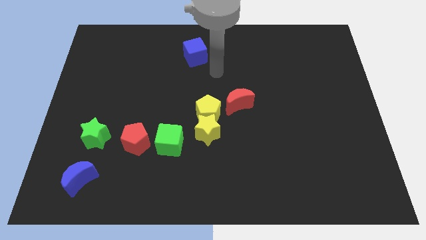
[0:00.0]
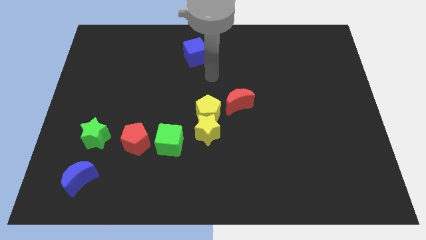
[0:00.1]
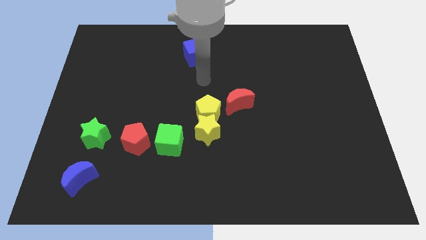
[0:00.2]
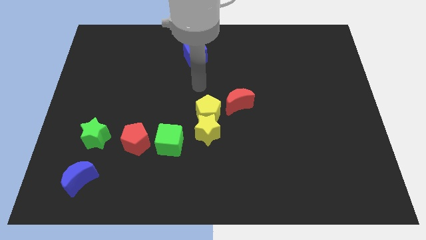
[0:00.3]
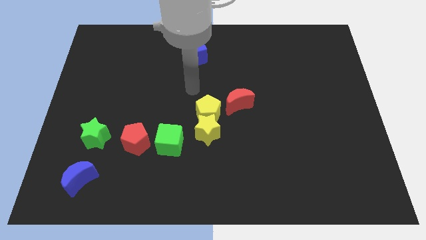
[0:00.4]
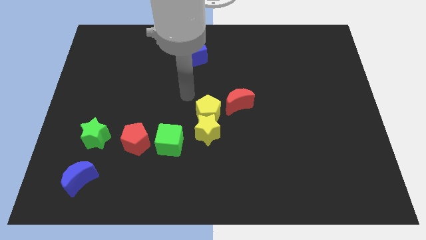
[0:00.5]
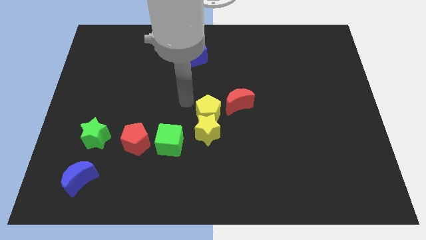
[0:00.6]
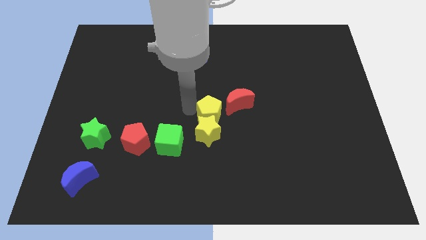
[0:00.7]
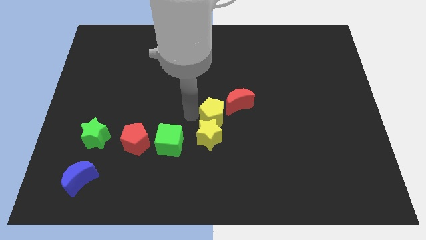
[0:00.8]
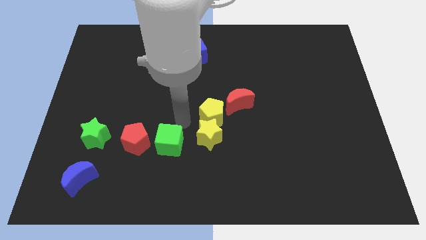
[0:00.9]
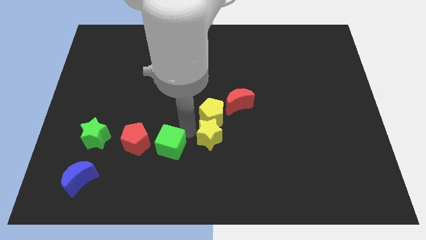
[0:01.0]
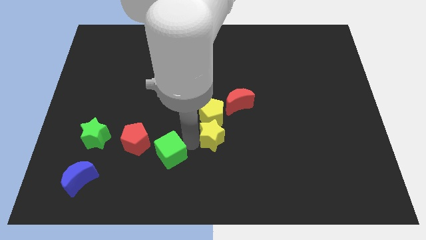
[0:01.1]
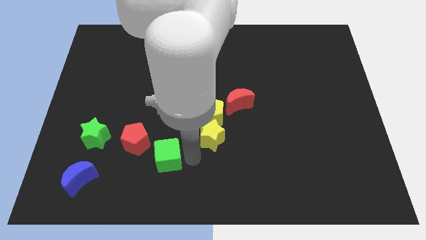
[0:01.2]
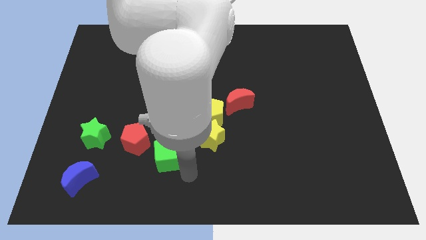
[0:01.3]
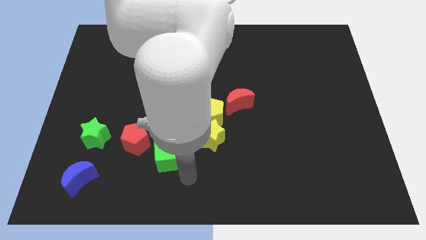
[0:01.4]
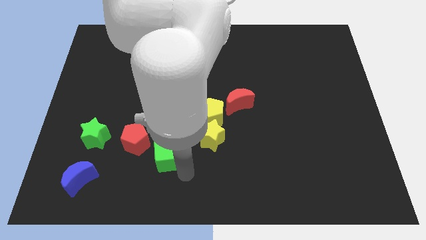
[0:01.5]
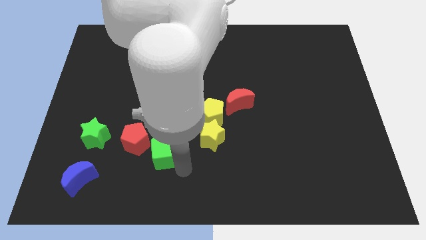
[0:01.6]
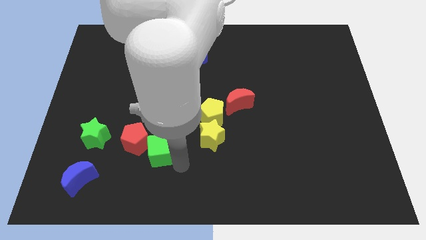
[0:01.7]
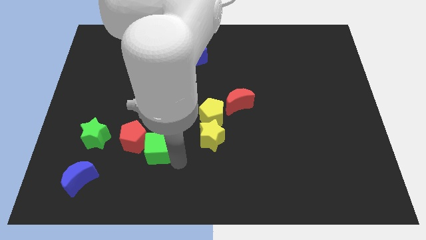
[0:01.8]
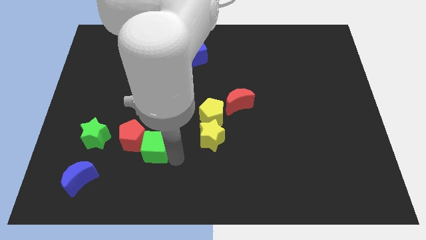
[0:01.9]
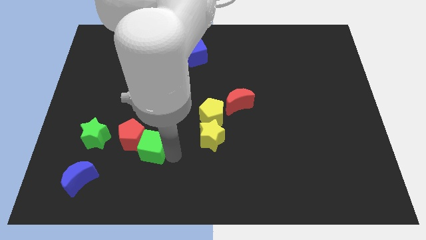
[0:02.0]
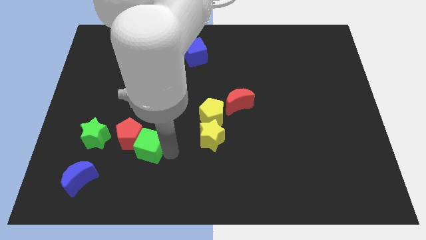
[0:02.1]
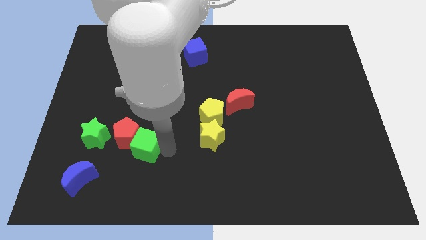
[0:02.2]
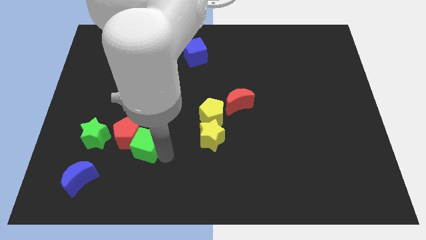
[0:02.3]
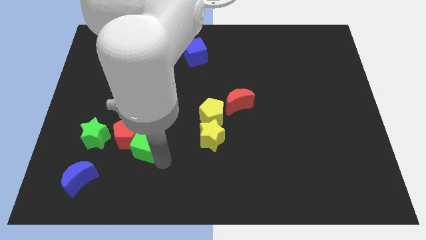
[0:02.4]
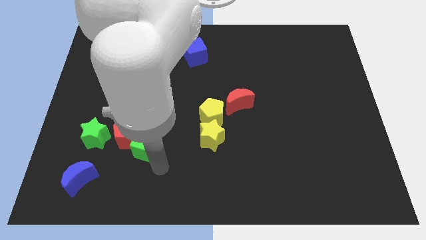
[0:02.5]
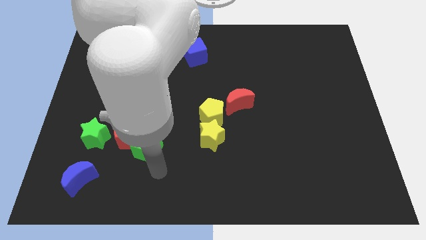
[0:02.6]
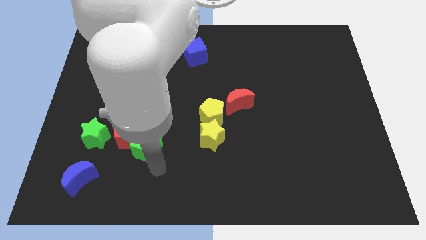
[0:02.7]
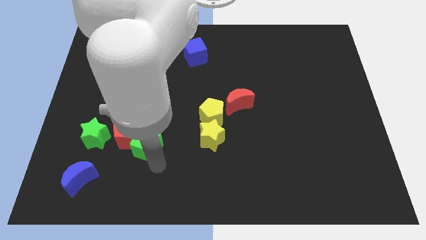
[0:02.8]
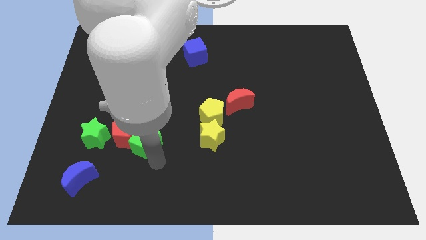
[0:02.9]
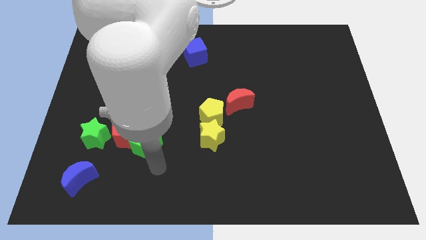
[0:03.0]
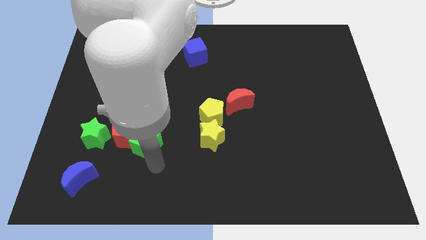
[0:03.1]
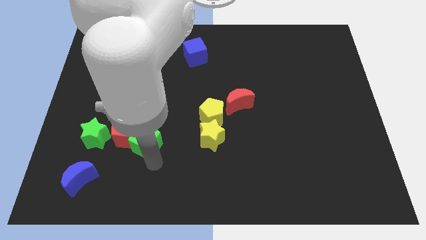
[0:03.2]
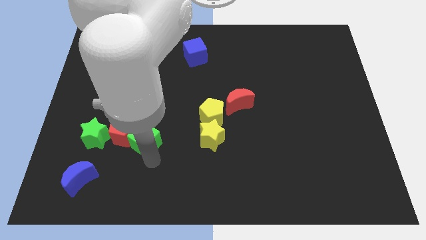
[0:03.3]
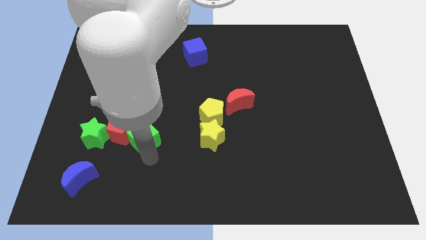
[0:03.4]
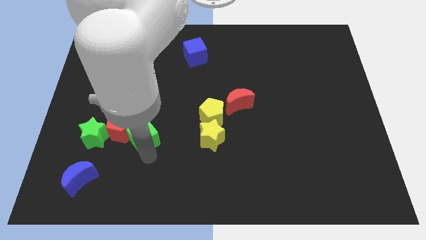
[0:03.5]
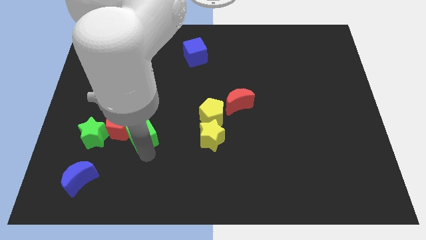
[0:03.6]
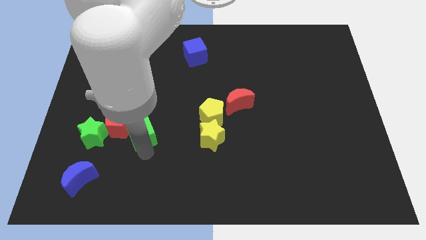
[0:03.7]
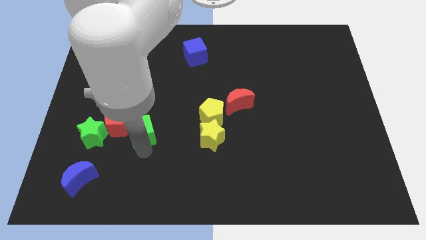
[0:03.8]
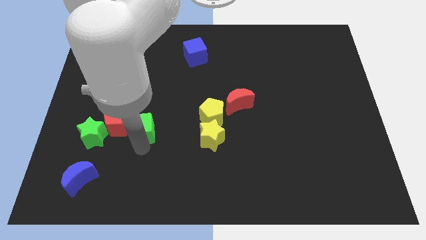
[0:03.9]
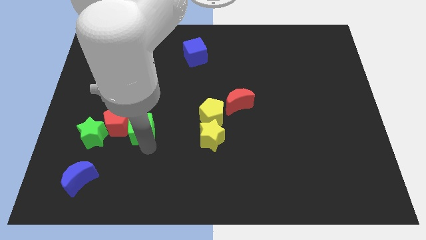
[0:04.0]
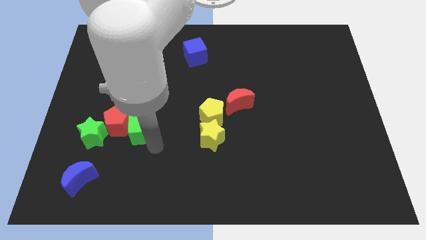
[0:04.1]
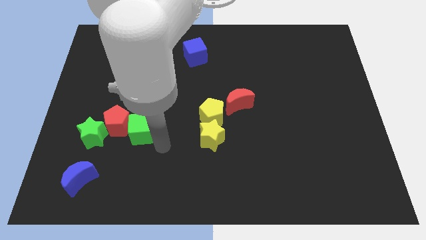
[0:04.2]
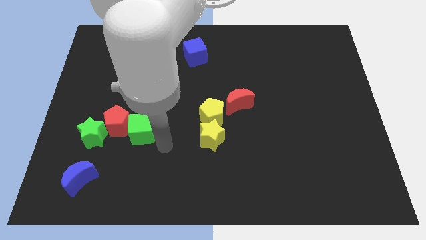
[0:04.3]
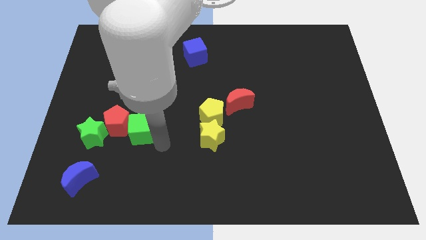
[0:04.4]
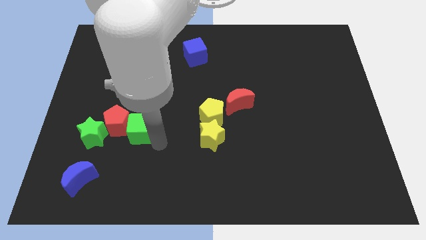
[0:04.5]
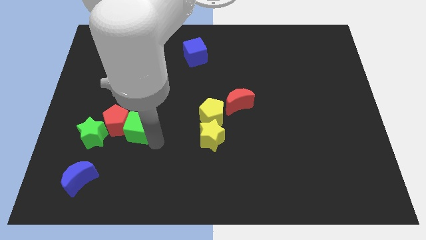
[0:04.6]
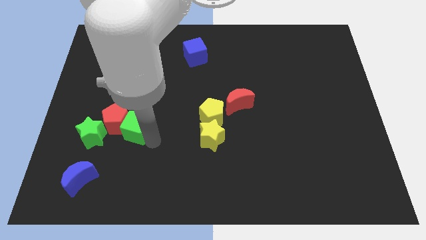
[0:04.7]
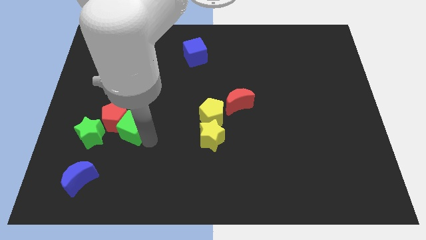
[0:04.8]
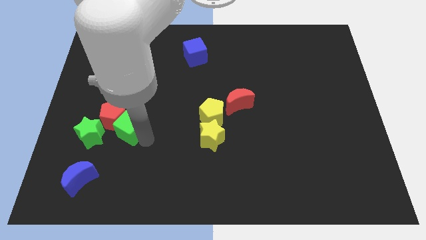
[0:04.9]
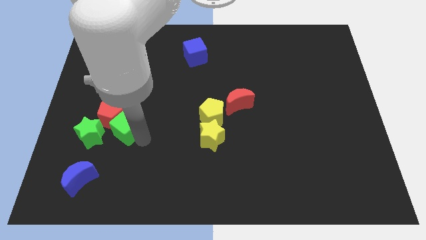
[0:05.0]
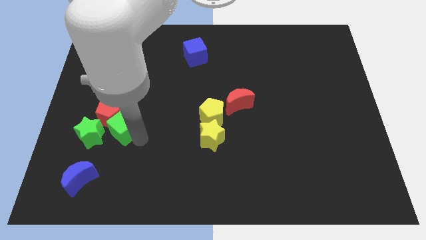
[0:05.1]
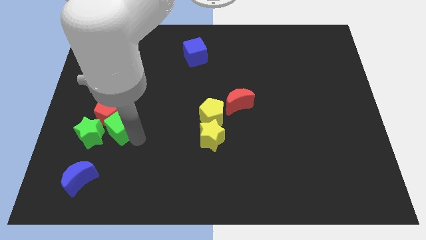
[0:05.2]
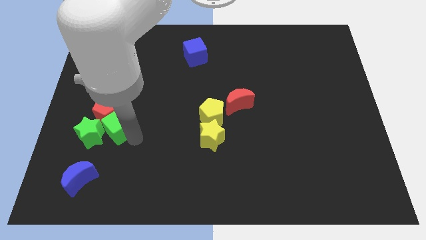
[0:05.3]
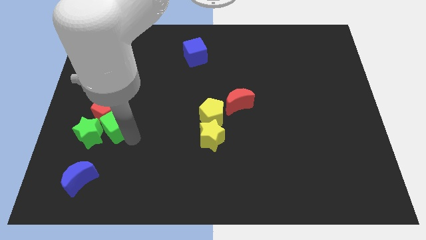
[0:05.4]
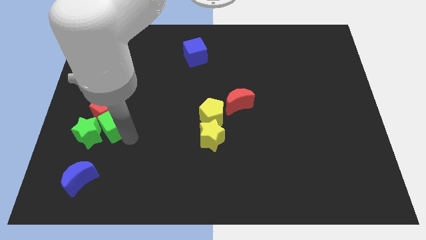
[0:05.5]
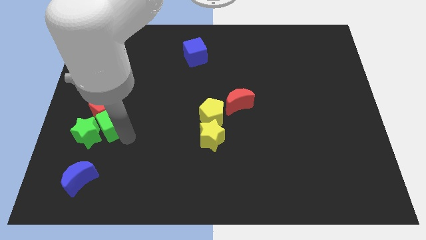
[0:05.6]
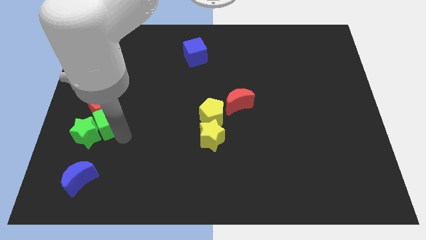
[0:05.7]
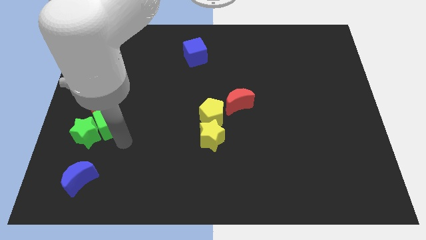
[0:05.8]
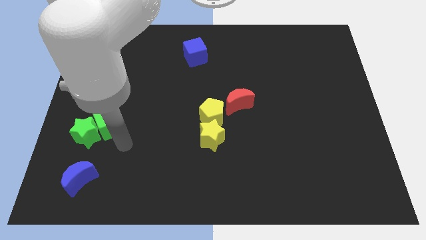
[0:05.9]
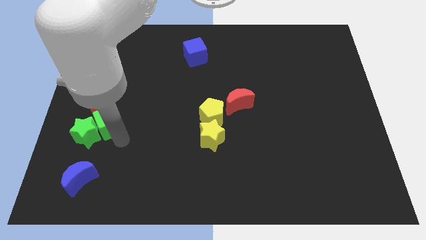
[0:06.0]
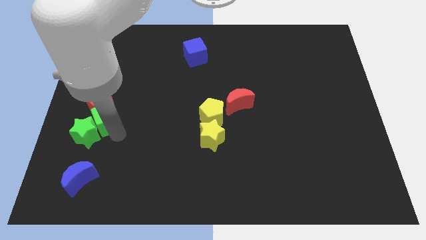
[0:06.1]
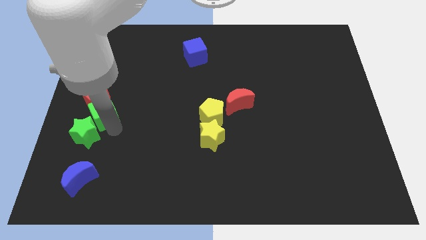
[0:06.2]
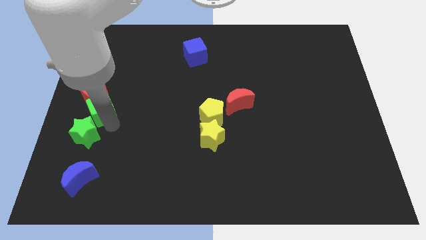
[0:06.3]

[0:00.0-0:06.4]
slide the green cube to the left side
